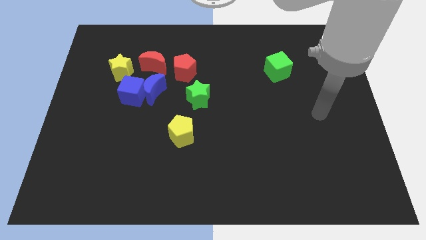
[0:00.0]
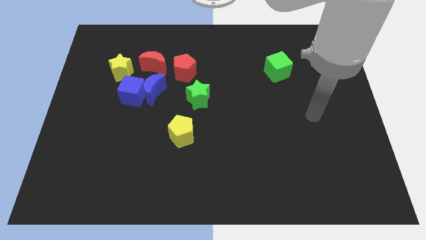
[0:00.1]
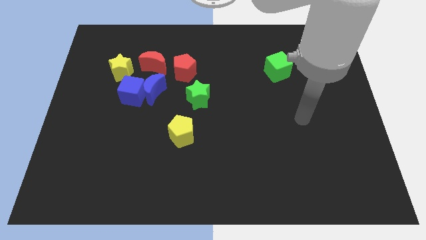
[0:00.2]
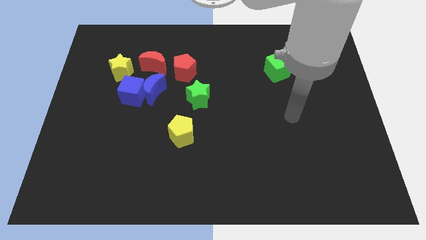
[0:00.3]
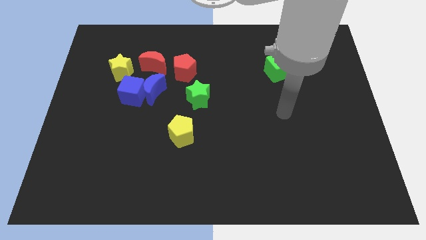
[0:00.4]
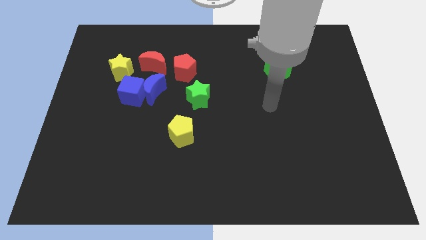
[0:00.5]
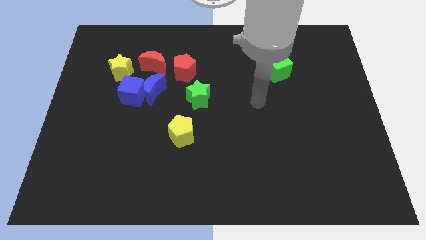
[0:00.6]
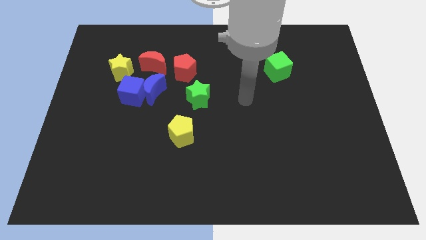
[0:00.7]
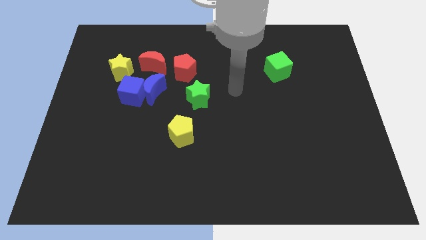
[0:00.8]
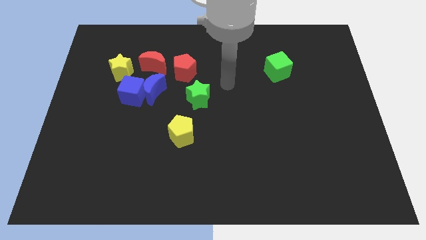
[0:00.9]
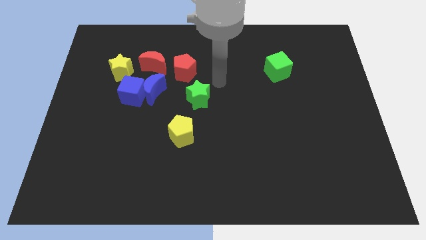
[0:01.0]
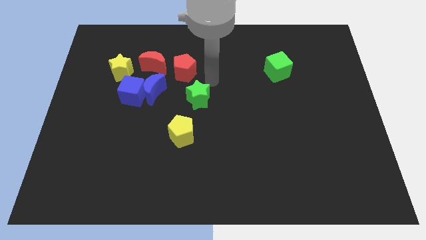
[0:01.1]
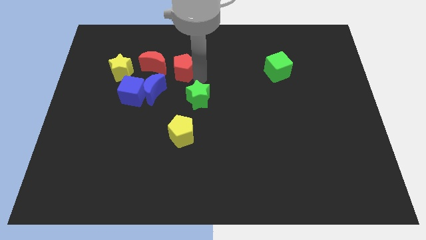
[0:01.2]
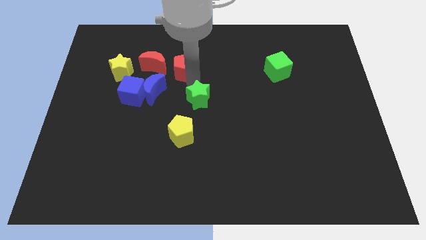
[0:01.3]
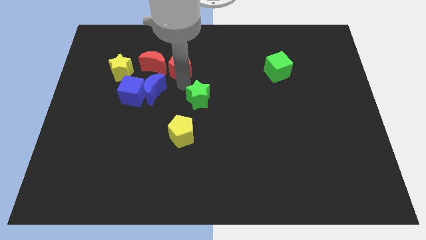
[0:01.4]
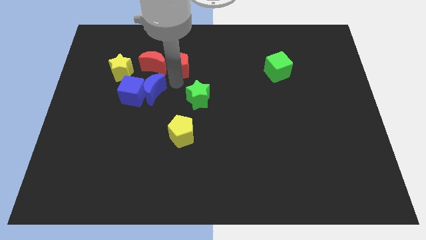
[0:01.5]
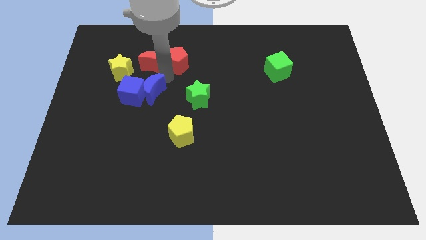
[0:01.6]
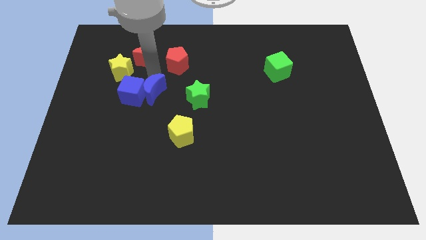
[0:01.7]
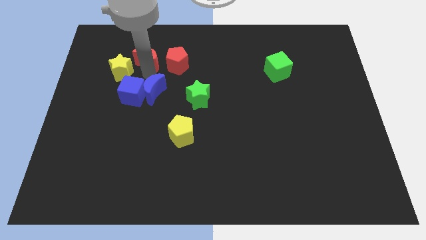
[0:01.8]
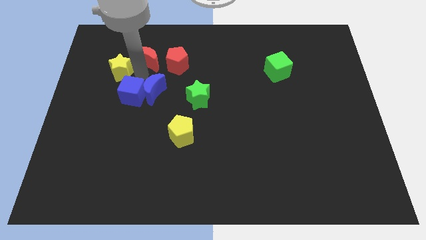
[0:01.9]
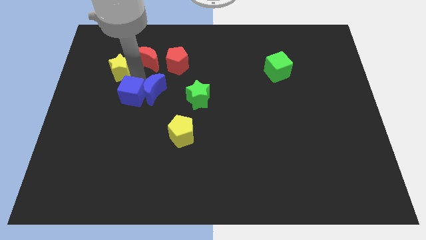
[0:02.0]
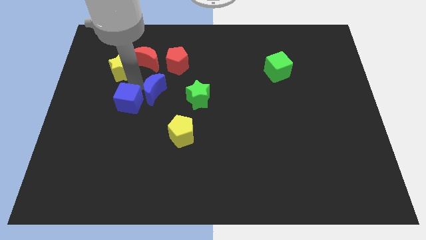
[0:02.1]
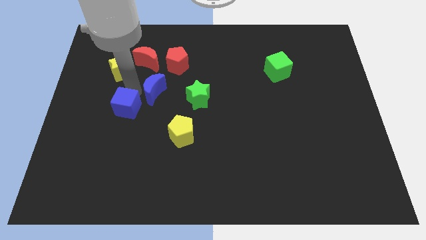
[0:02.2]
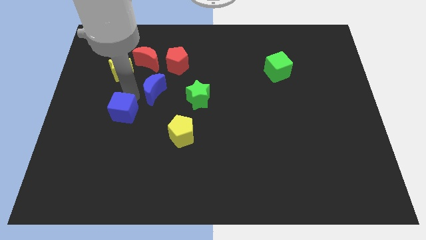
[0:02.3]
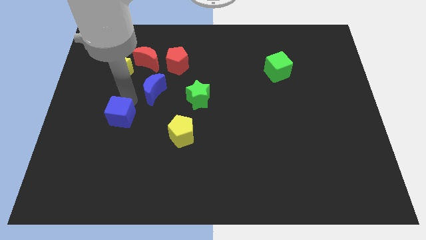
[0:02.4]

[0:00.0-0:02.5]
pull the blue cube apart from the blue moon and yellow star

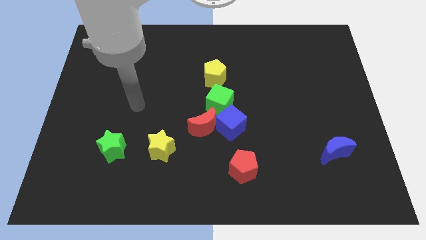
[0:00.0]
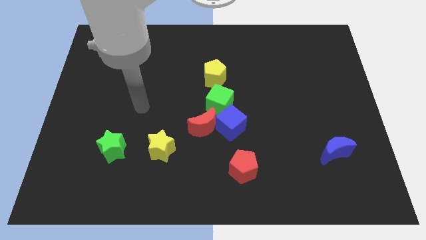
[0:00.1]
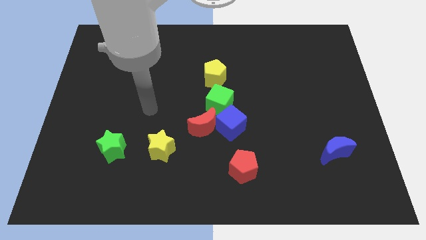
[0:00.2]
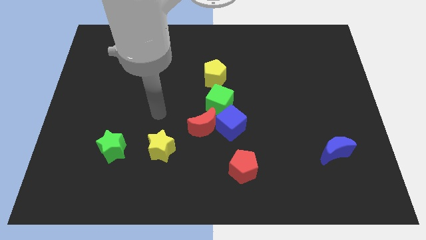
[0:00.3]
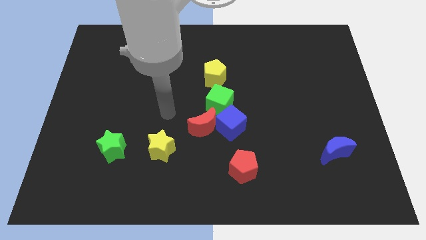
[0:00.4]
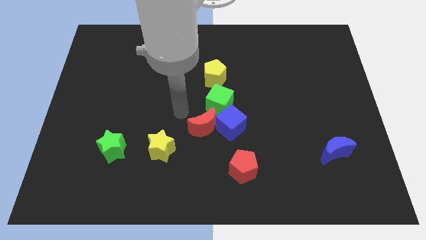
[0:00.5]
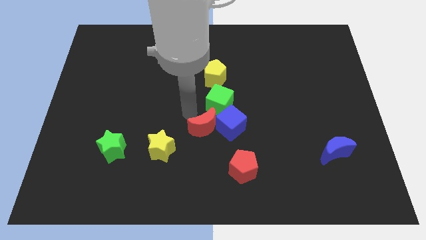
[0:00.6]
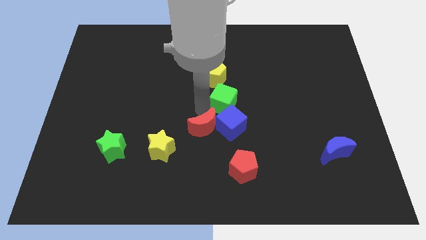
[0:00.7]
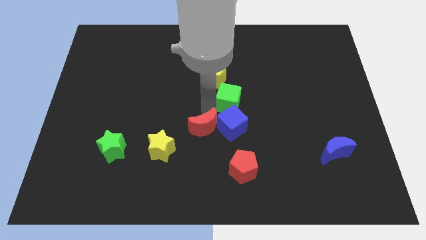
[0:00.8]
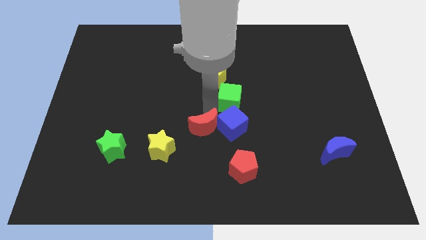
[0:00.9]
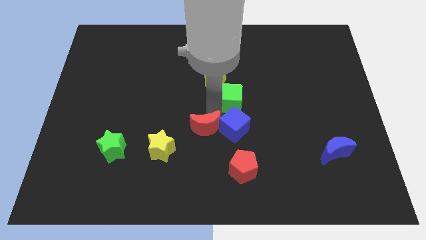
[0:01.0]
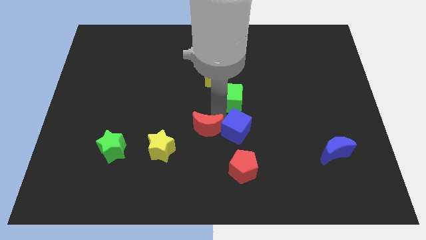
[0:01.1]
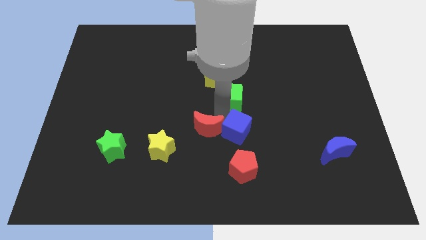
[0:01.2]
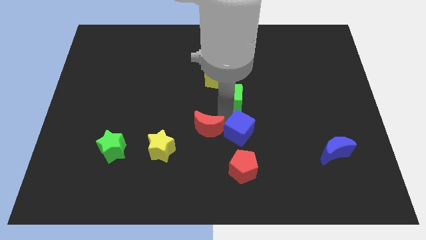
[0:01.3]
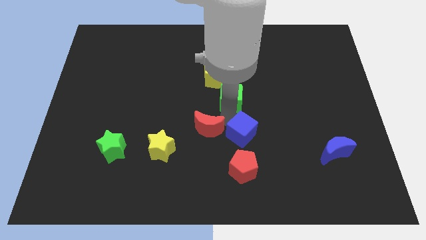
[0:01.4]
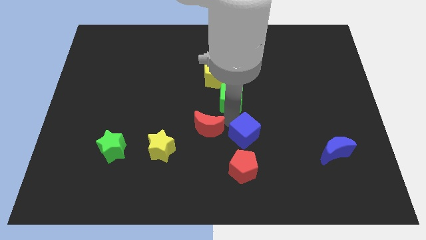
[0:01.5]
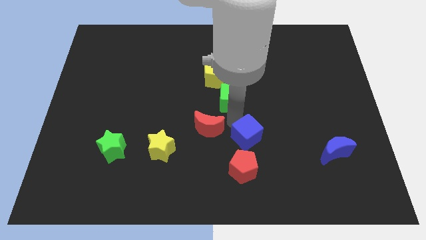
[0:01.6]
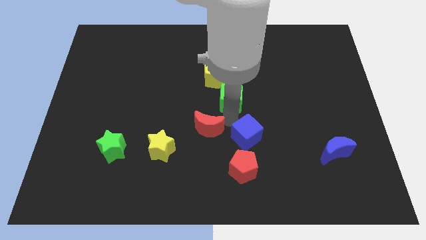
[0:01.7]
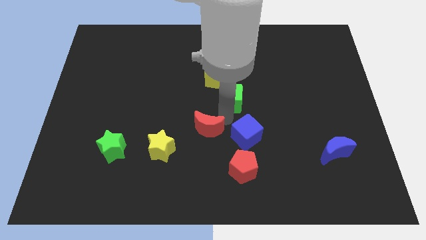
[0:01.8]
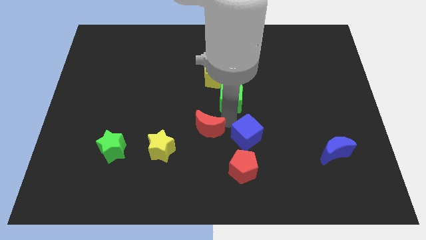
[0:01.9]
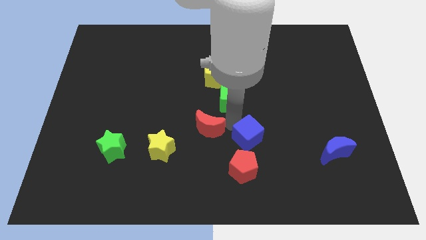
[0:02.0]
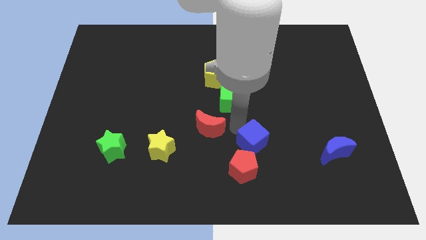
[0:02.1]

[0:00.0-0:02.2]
move the blue cube away from the red moon and green cube

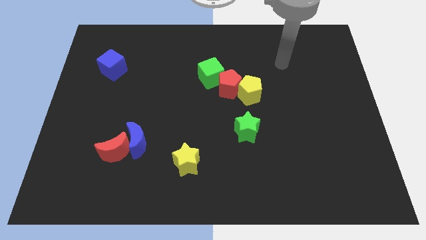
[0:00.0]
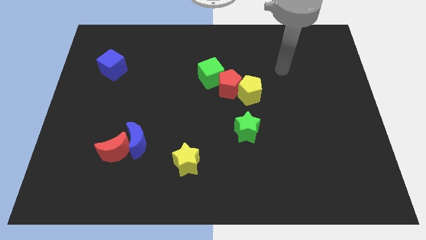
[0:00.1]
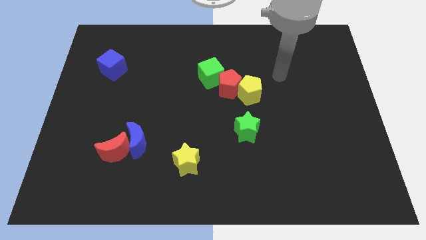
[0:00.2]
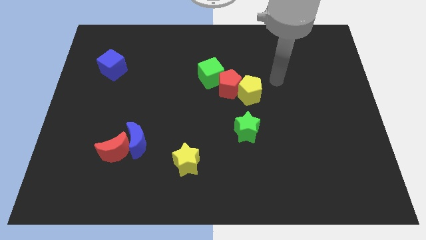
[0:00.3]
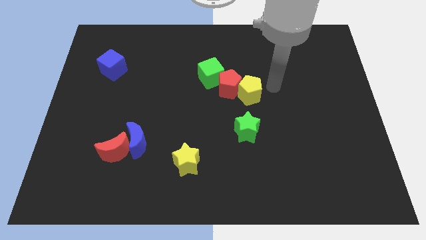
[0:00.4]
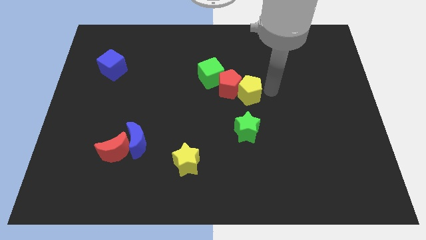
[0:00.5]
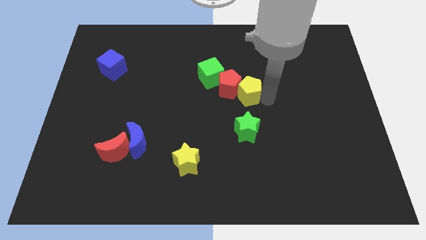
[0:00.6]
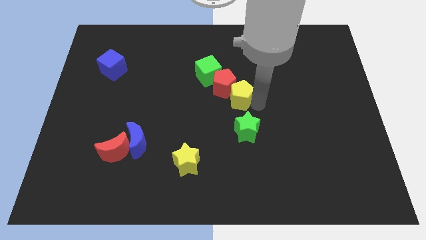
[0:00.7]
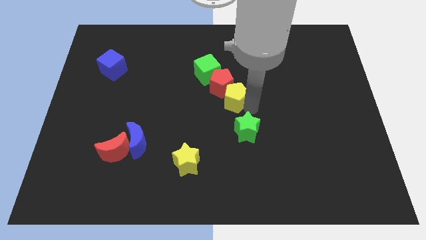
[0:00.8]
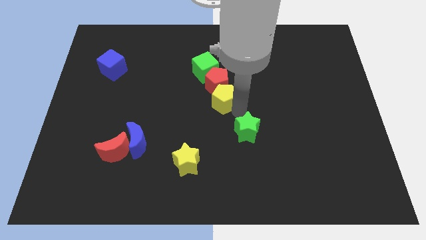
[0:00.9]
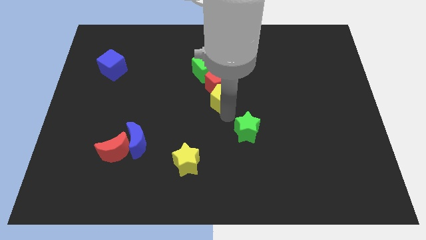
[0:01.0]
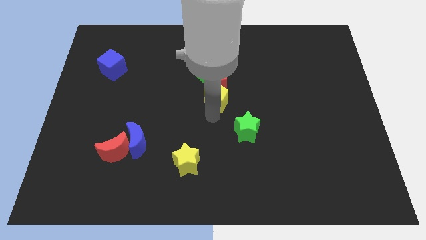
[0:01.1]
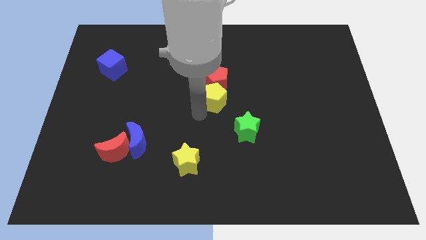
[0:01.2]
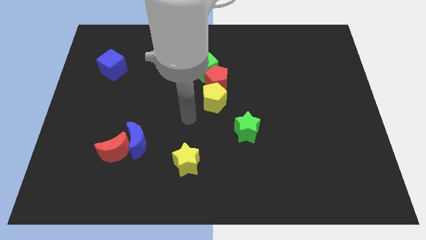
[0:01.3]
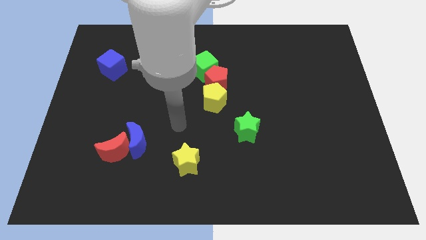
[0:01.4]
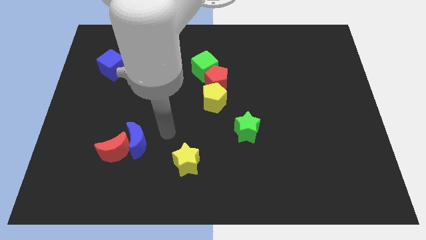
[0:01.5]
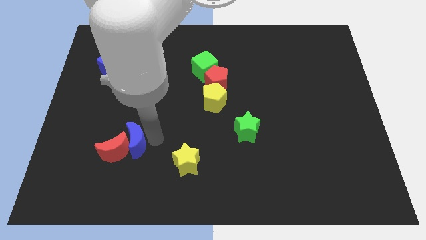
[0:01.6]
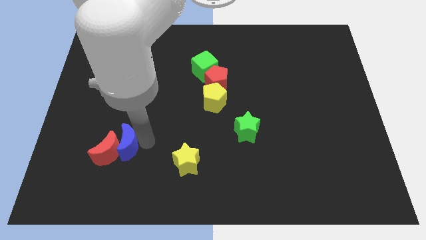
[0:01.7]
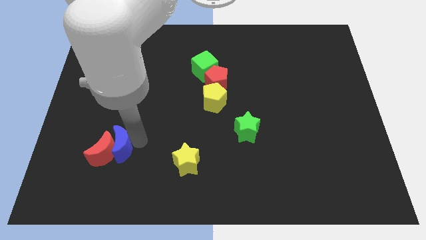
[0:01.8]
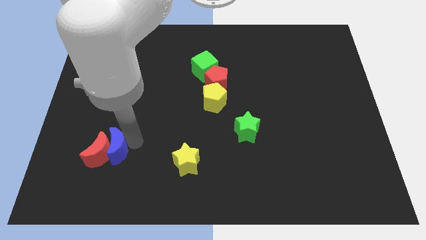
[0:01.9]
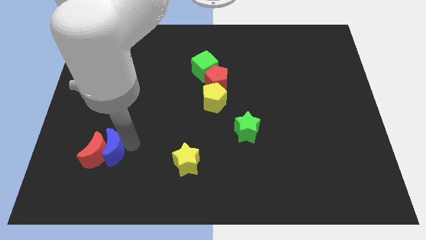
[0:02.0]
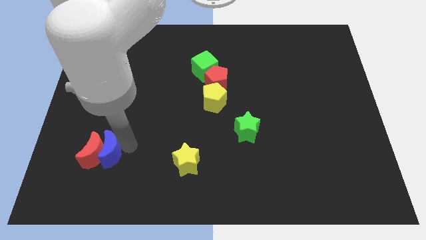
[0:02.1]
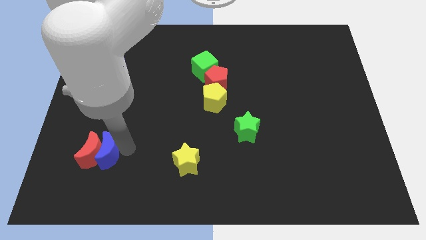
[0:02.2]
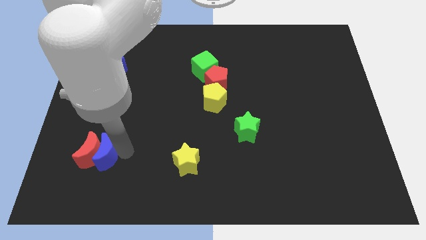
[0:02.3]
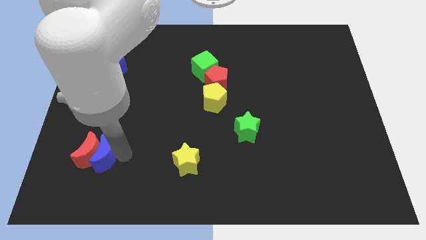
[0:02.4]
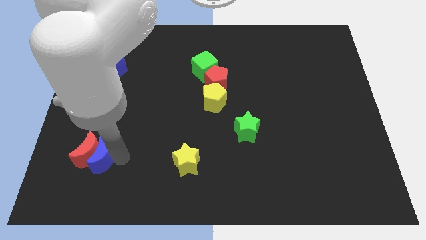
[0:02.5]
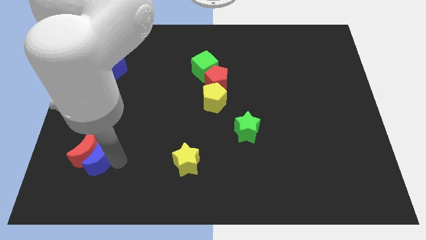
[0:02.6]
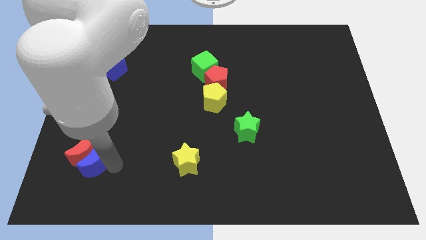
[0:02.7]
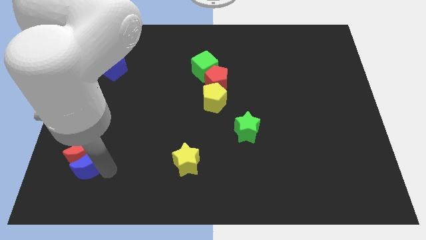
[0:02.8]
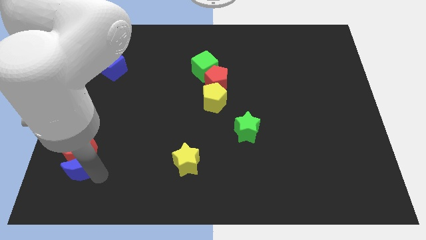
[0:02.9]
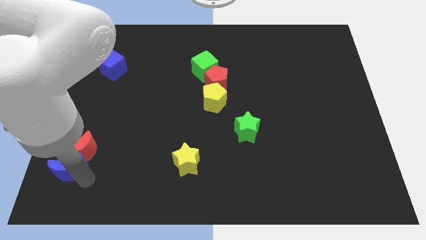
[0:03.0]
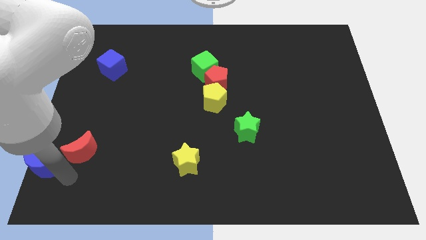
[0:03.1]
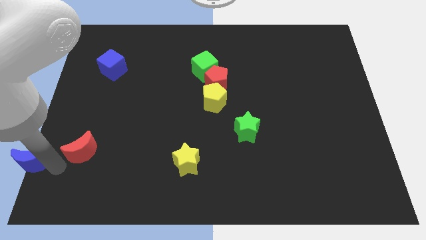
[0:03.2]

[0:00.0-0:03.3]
separate the red moon from the blue moon

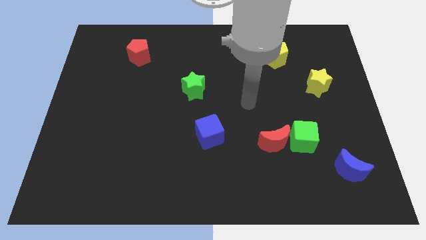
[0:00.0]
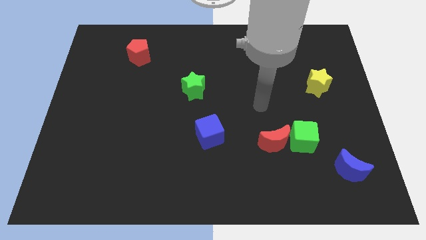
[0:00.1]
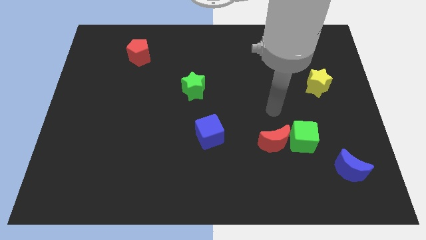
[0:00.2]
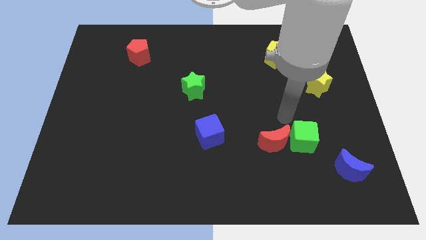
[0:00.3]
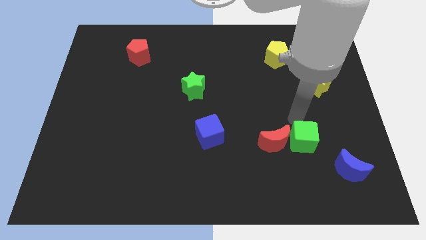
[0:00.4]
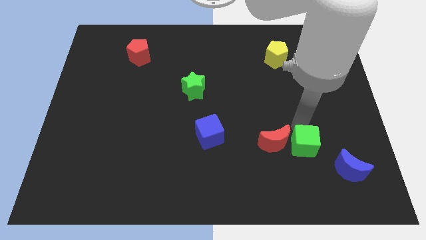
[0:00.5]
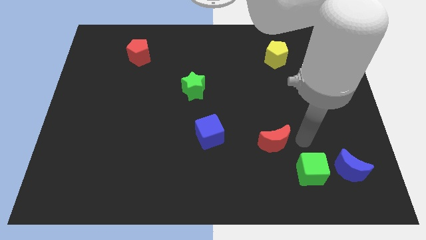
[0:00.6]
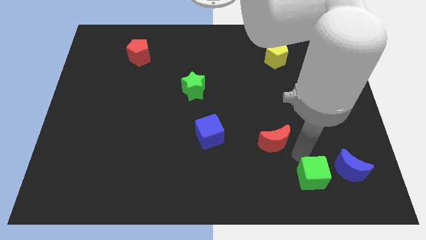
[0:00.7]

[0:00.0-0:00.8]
pull the red moon apart from the green cube

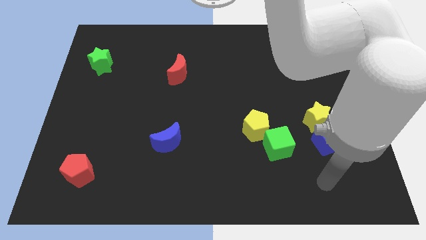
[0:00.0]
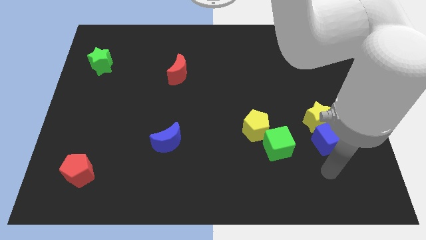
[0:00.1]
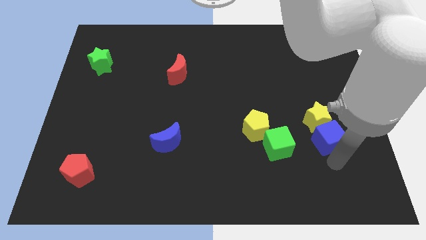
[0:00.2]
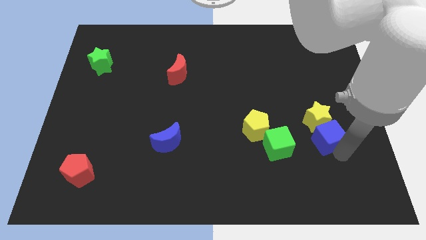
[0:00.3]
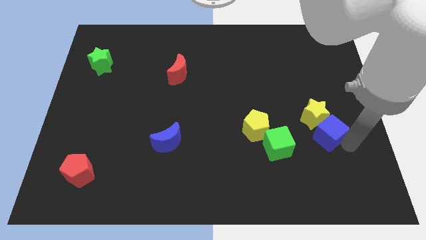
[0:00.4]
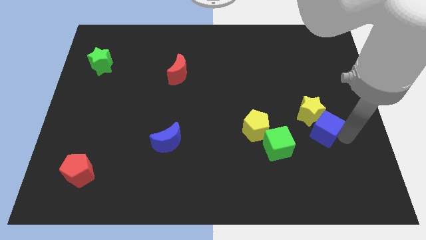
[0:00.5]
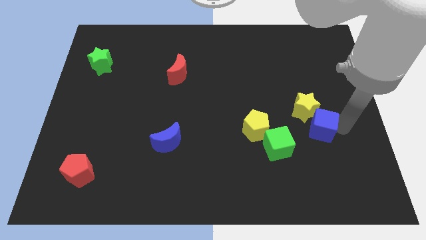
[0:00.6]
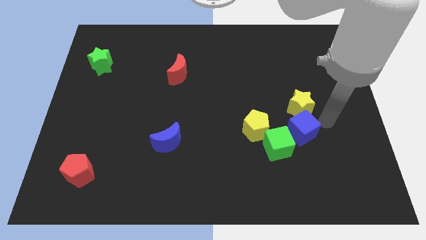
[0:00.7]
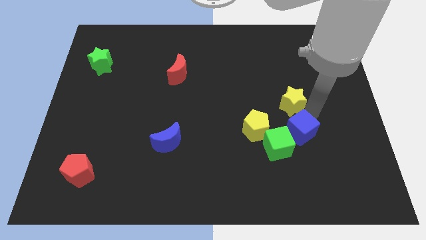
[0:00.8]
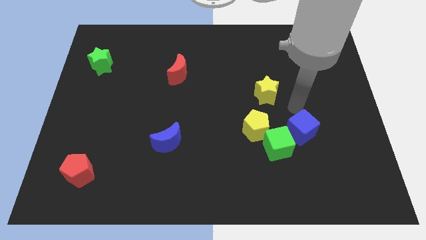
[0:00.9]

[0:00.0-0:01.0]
move the blue cube away from the yellow star
